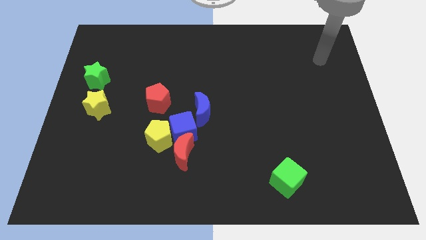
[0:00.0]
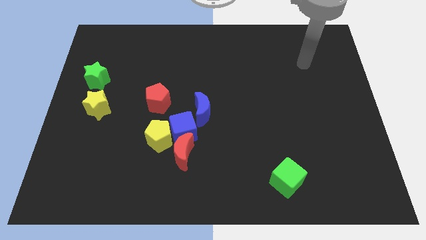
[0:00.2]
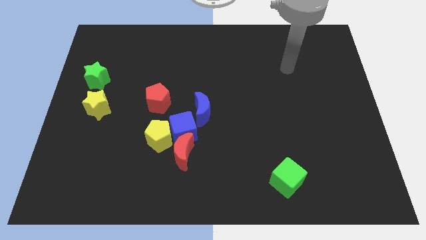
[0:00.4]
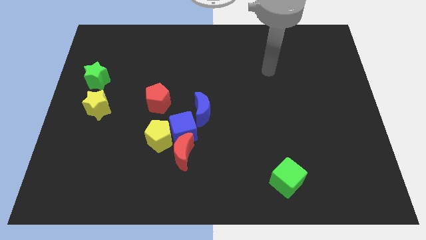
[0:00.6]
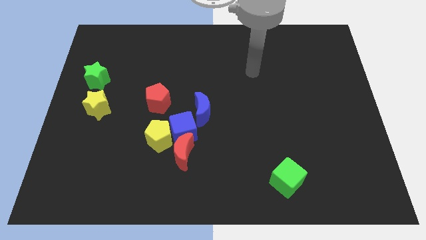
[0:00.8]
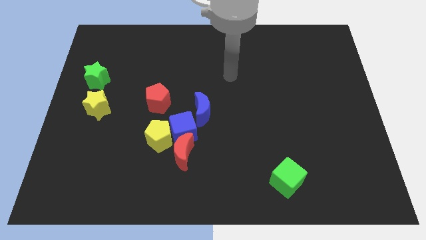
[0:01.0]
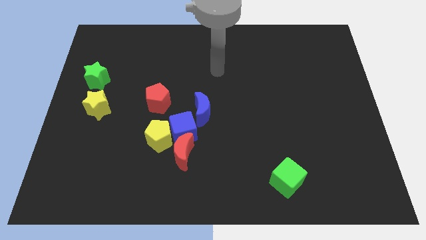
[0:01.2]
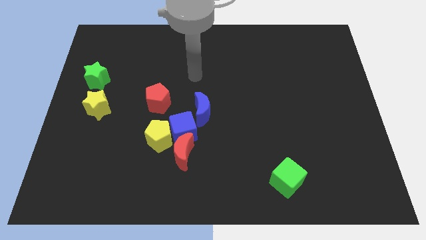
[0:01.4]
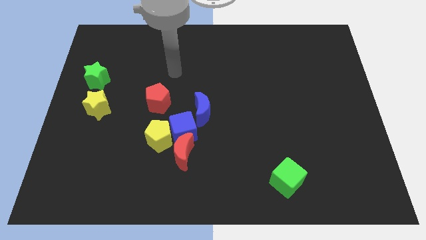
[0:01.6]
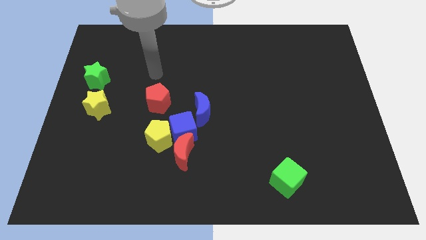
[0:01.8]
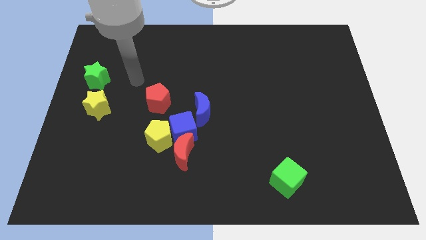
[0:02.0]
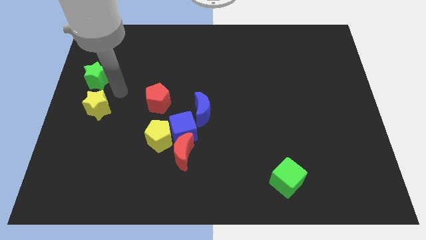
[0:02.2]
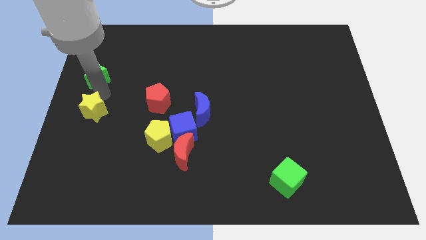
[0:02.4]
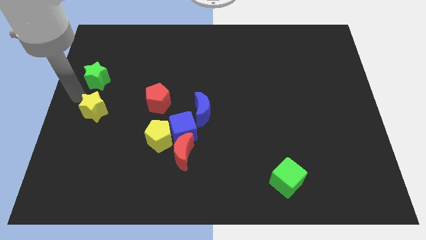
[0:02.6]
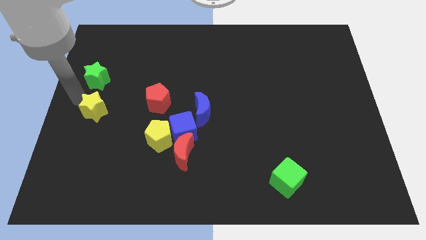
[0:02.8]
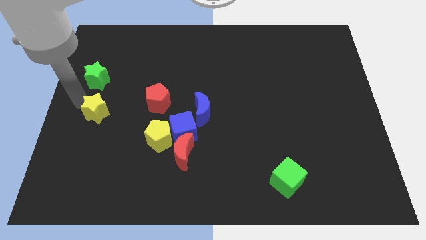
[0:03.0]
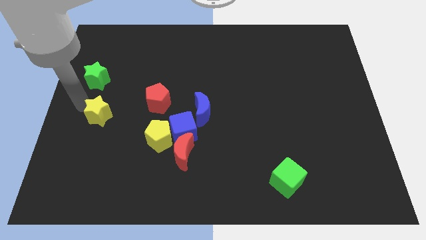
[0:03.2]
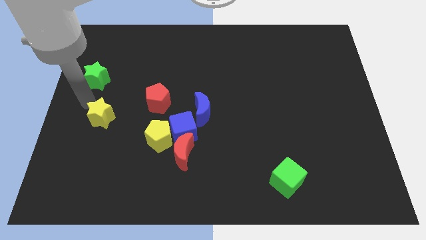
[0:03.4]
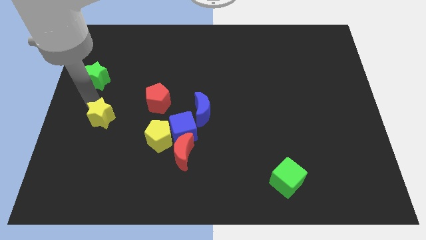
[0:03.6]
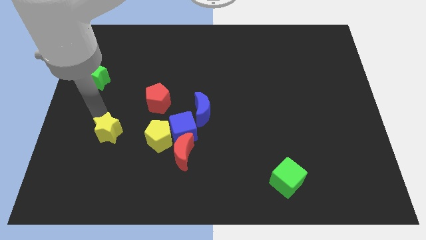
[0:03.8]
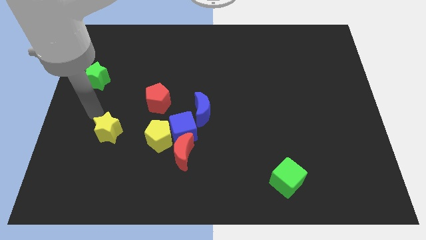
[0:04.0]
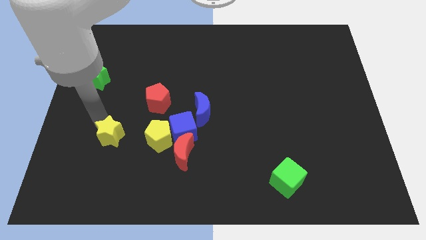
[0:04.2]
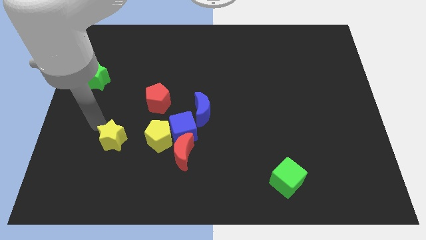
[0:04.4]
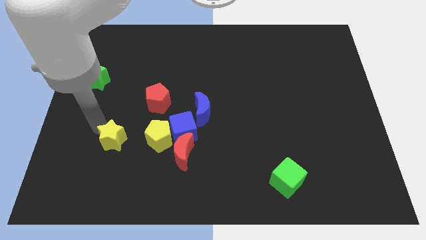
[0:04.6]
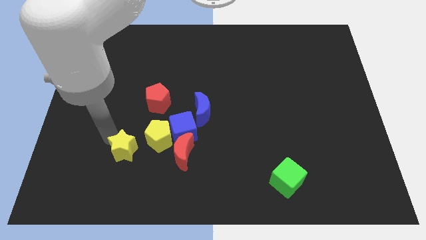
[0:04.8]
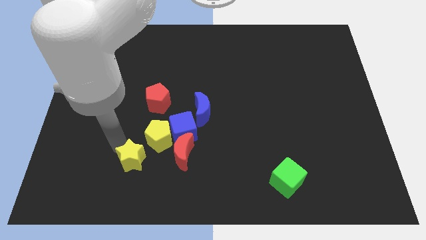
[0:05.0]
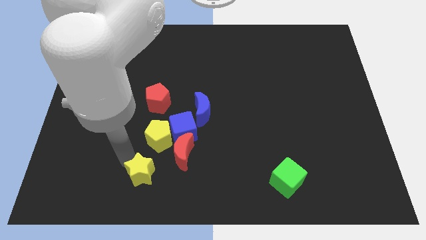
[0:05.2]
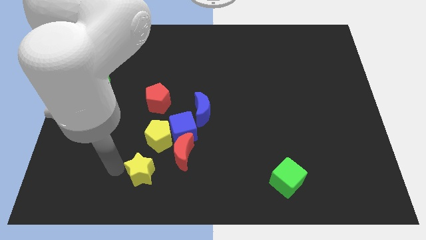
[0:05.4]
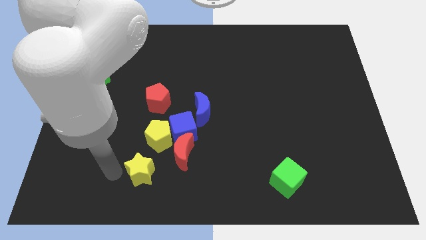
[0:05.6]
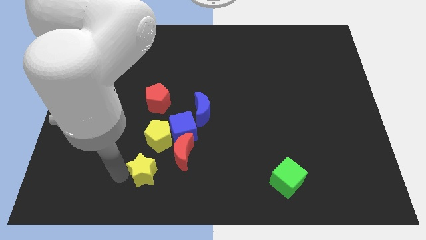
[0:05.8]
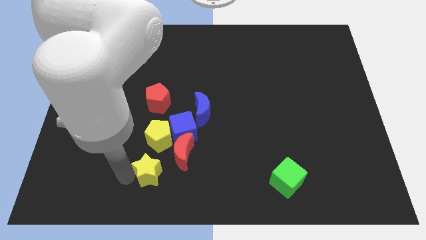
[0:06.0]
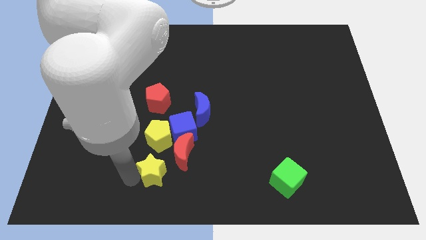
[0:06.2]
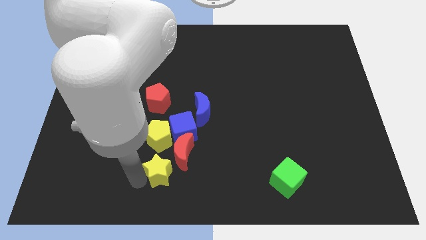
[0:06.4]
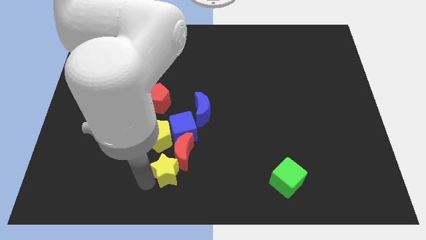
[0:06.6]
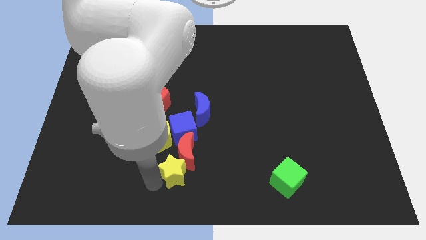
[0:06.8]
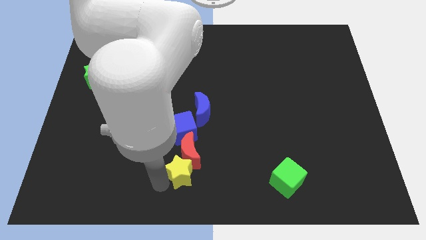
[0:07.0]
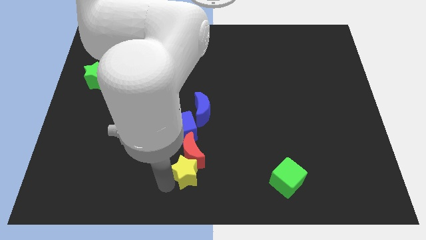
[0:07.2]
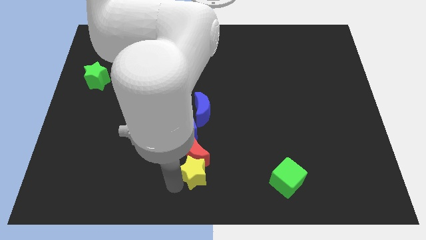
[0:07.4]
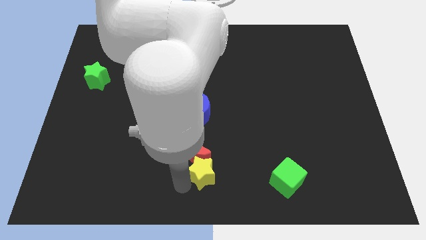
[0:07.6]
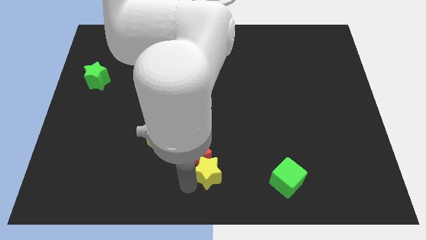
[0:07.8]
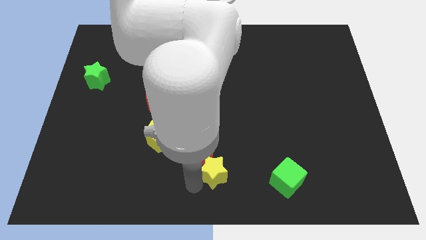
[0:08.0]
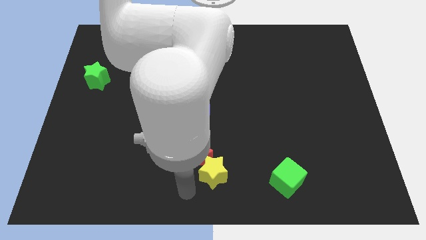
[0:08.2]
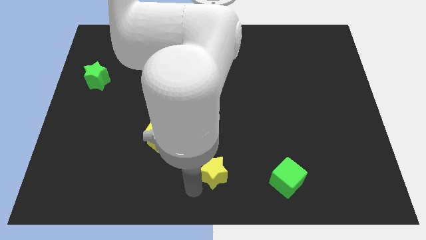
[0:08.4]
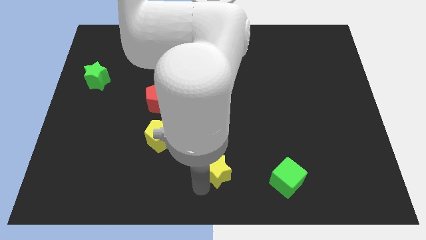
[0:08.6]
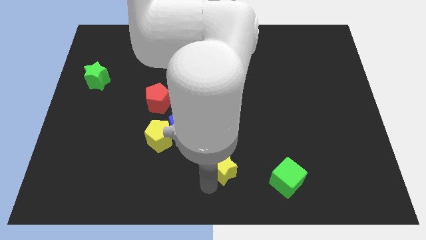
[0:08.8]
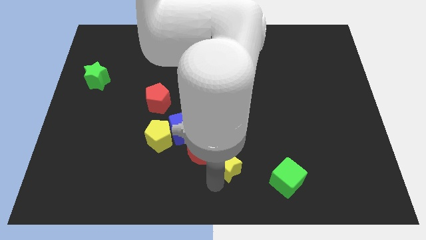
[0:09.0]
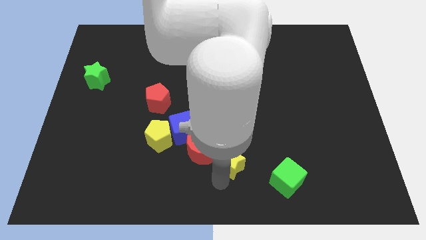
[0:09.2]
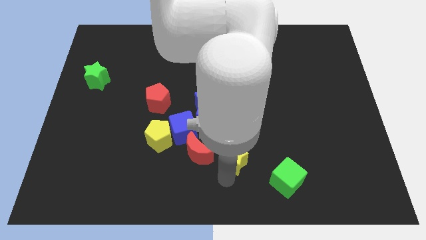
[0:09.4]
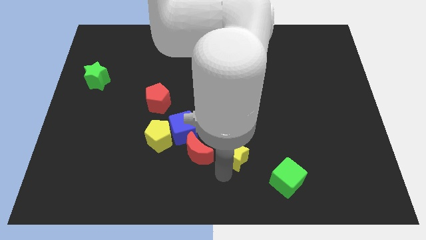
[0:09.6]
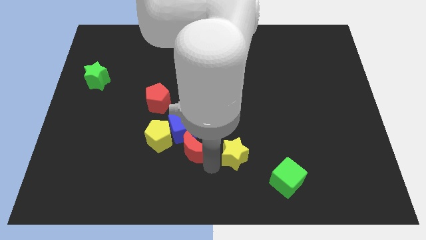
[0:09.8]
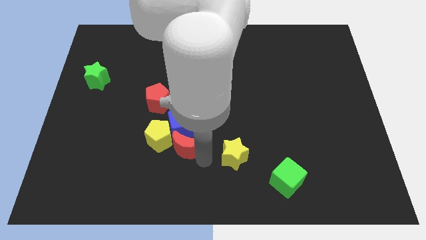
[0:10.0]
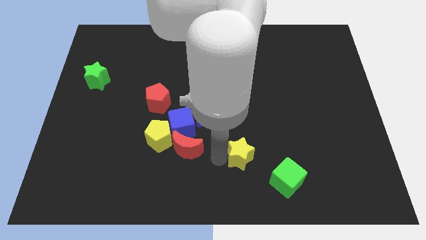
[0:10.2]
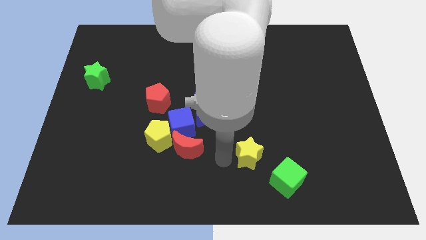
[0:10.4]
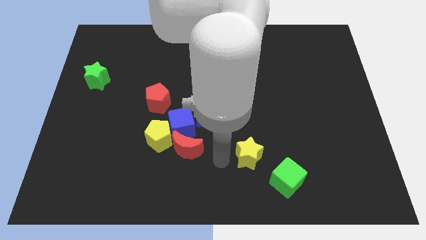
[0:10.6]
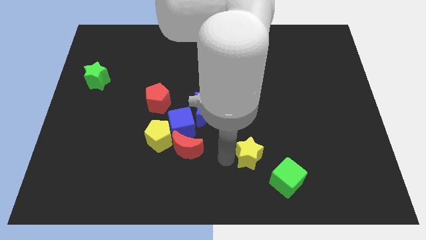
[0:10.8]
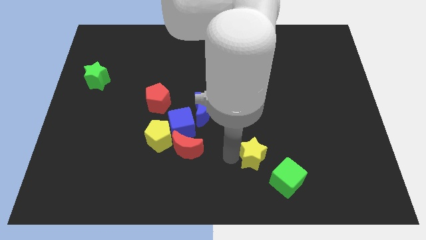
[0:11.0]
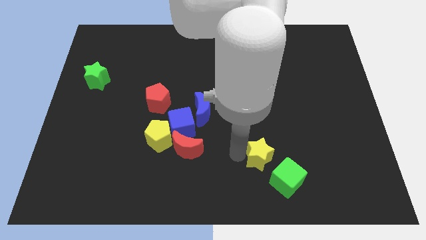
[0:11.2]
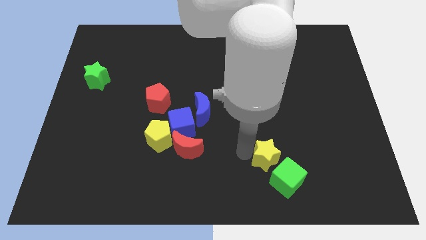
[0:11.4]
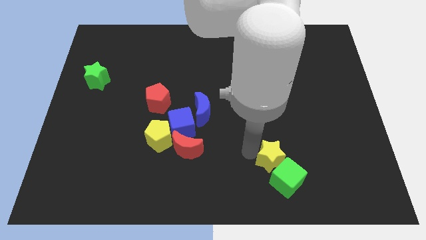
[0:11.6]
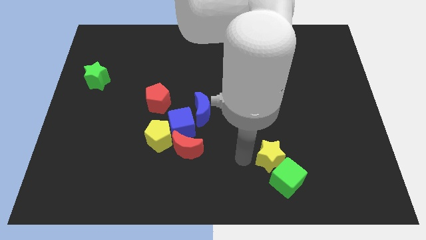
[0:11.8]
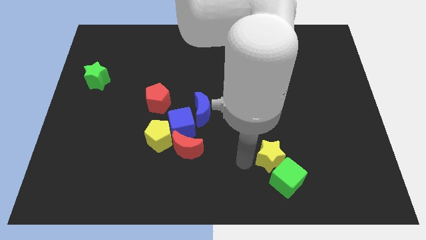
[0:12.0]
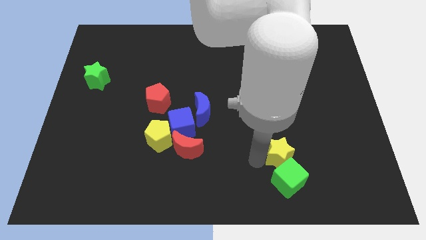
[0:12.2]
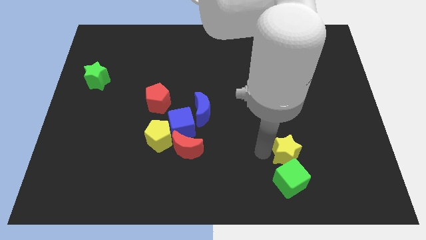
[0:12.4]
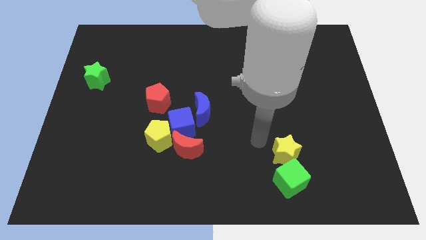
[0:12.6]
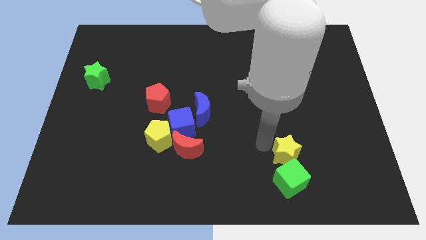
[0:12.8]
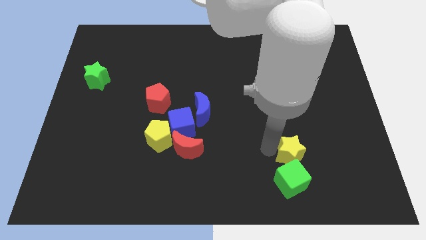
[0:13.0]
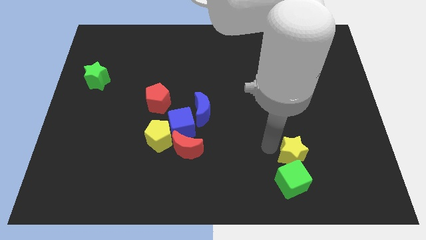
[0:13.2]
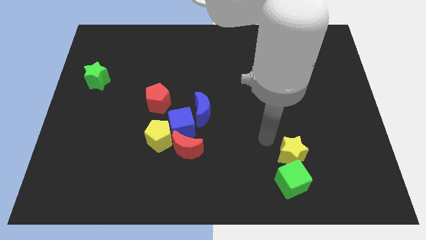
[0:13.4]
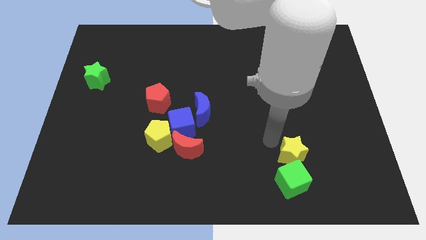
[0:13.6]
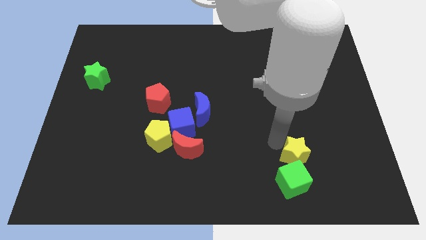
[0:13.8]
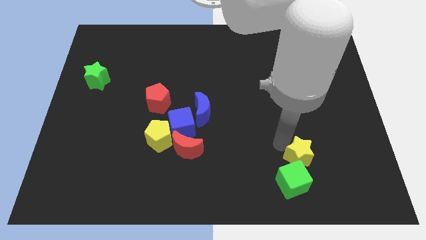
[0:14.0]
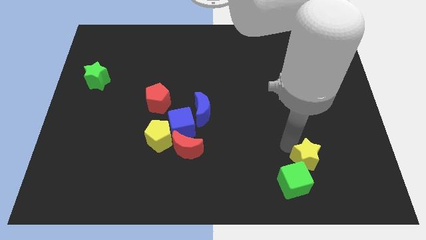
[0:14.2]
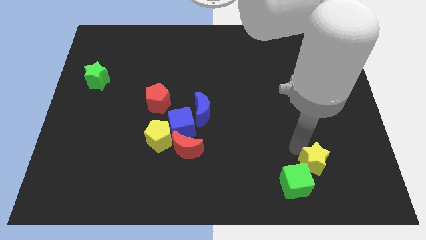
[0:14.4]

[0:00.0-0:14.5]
move the yellow star right of the green cube
